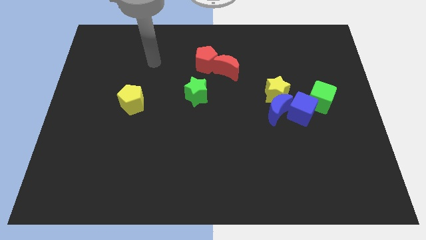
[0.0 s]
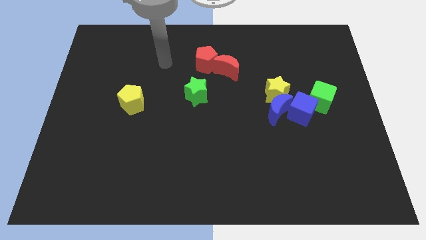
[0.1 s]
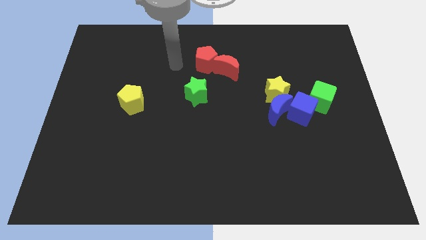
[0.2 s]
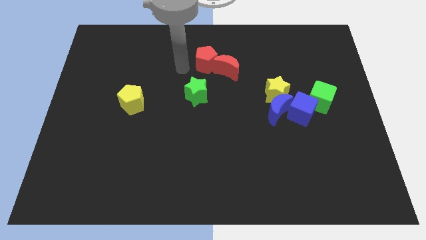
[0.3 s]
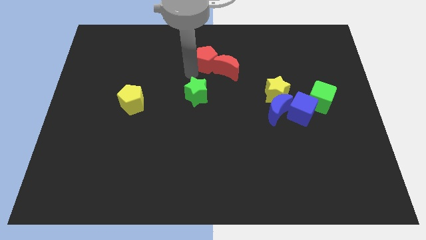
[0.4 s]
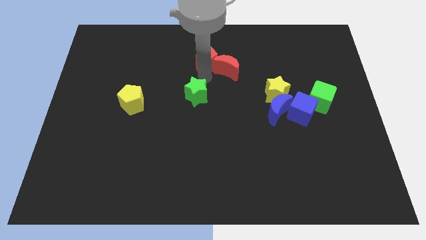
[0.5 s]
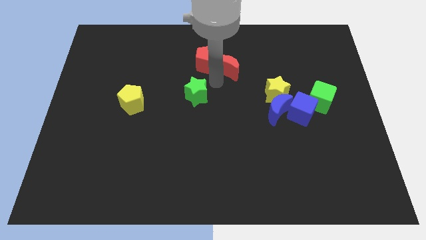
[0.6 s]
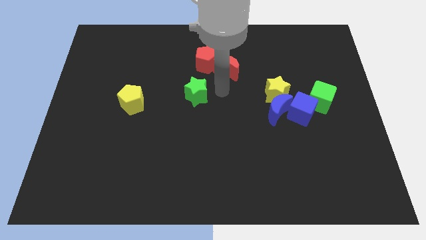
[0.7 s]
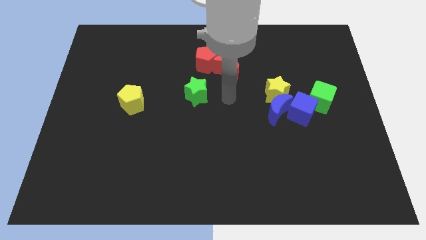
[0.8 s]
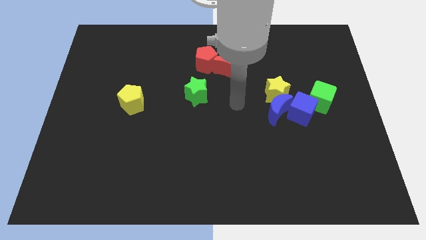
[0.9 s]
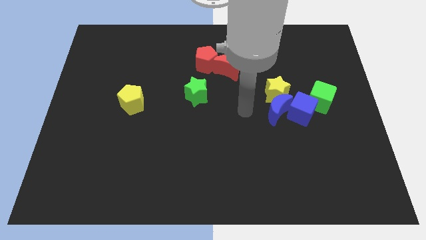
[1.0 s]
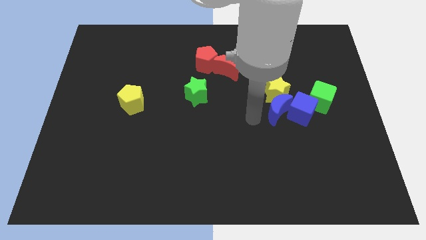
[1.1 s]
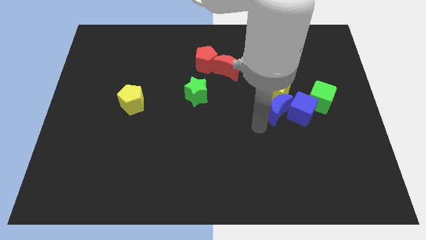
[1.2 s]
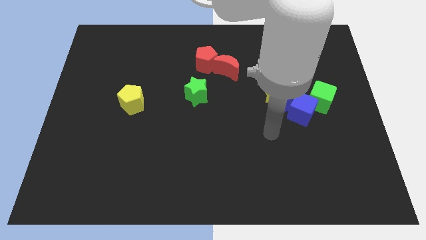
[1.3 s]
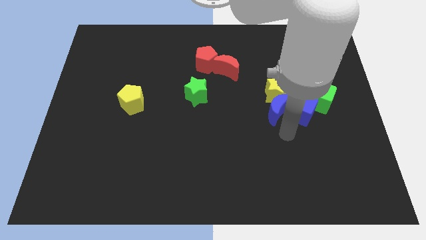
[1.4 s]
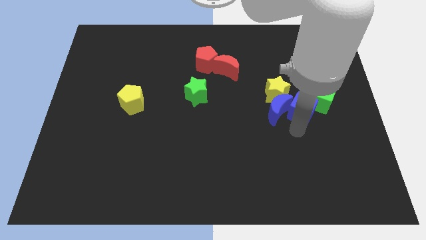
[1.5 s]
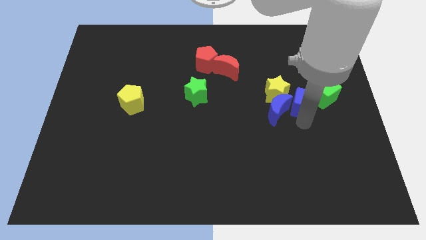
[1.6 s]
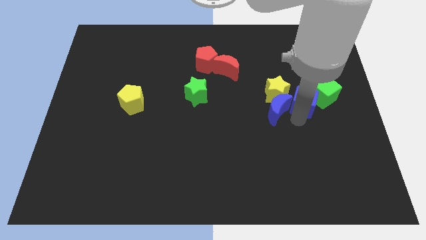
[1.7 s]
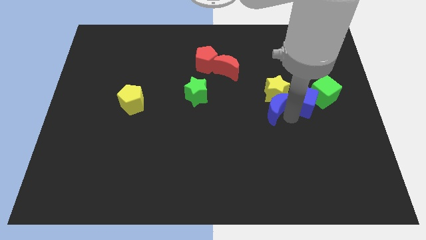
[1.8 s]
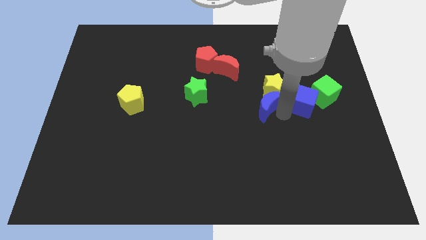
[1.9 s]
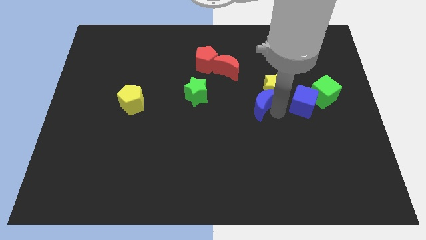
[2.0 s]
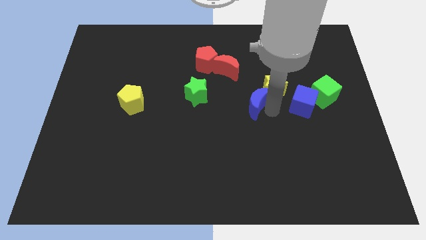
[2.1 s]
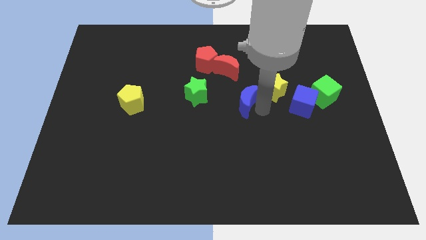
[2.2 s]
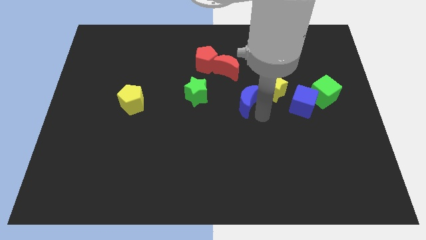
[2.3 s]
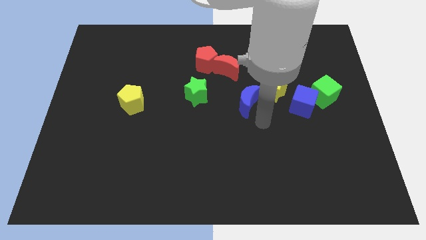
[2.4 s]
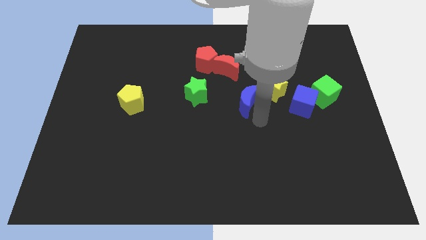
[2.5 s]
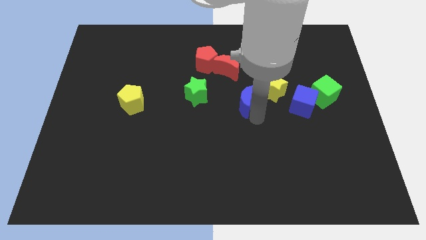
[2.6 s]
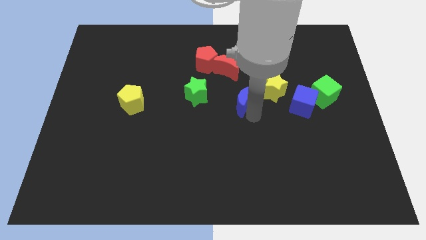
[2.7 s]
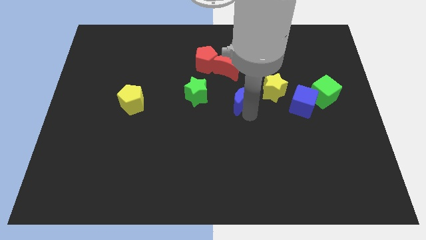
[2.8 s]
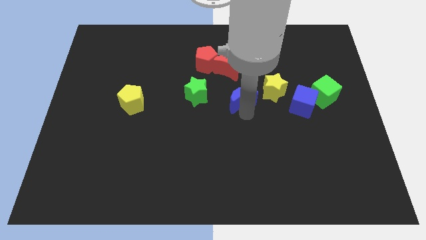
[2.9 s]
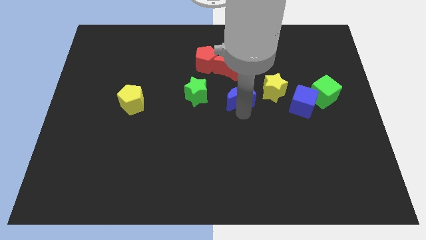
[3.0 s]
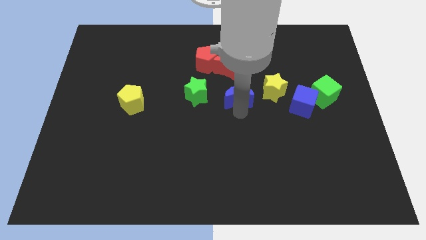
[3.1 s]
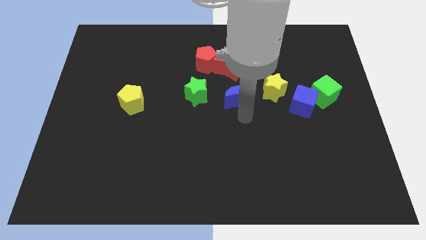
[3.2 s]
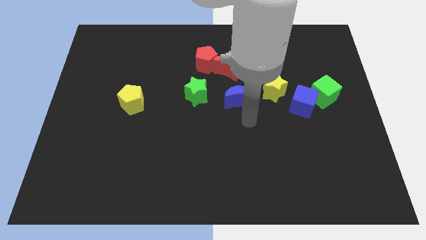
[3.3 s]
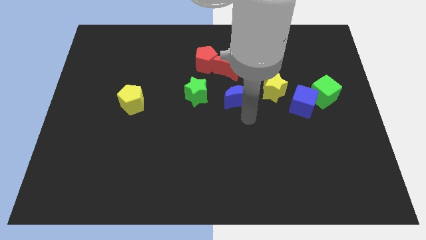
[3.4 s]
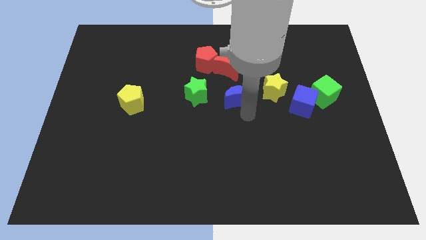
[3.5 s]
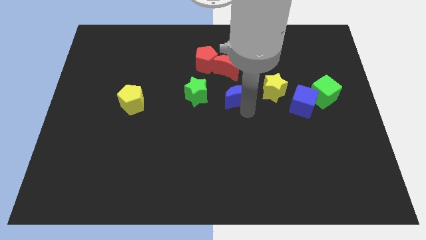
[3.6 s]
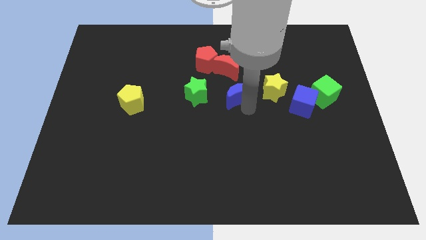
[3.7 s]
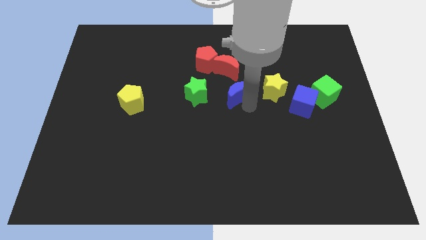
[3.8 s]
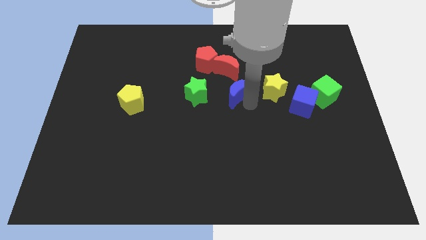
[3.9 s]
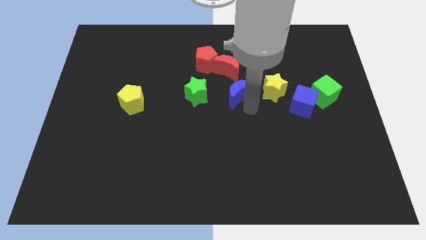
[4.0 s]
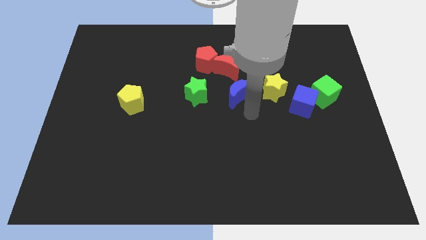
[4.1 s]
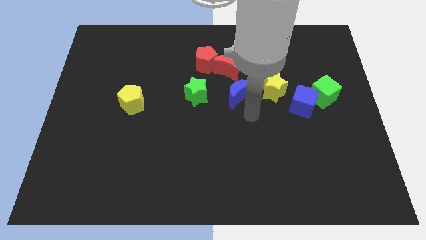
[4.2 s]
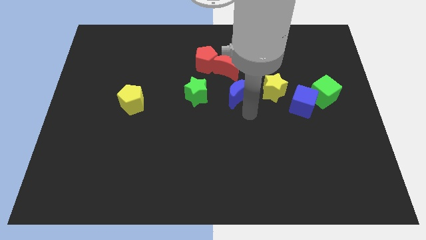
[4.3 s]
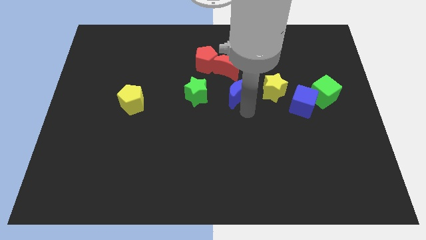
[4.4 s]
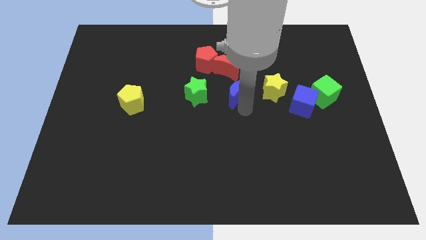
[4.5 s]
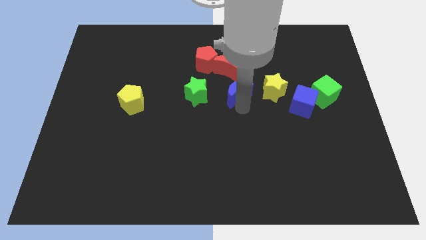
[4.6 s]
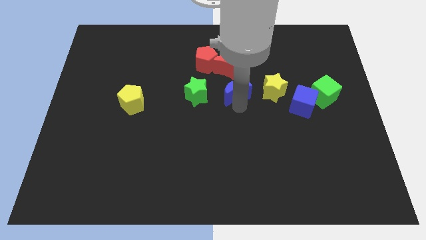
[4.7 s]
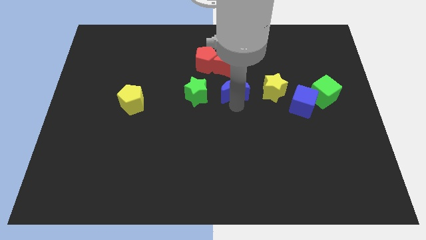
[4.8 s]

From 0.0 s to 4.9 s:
push the blue moon to the bottom right side of the red pentagon

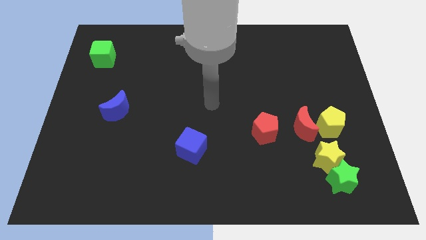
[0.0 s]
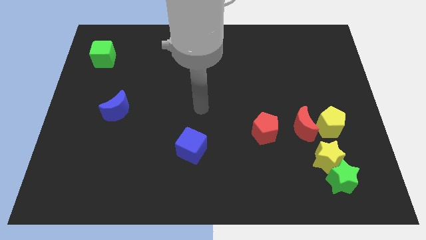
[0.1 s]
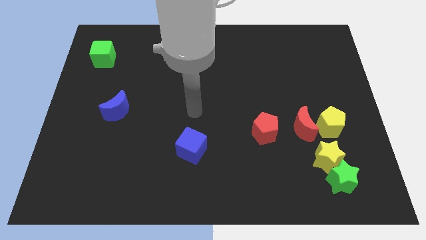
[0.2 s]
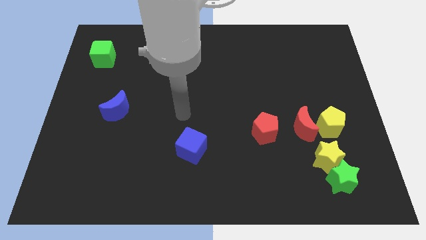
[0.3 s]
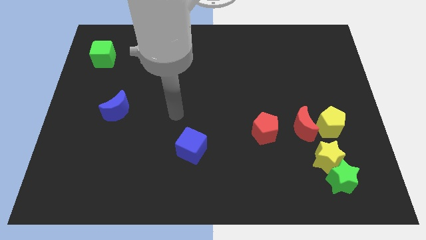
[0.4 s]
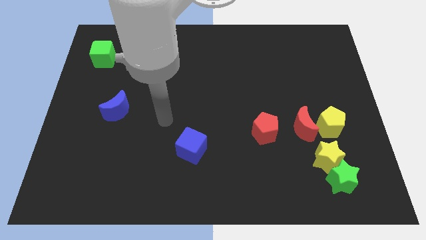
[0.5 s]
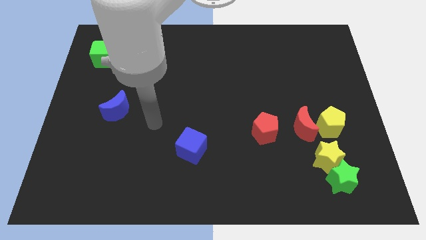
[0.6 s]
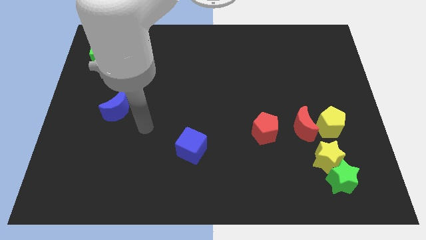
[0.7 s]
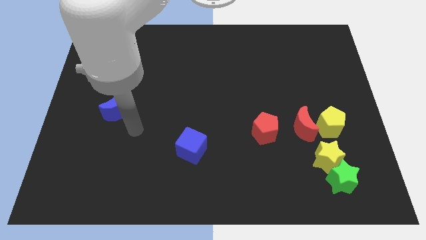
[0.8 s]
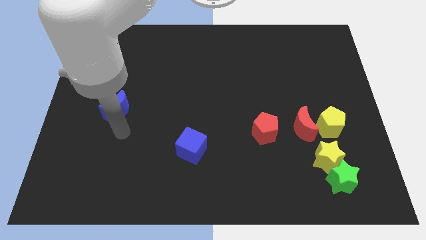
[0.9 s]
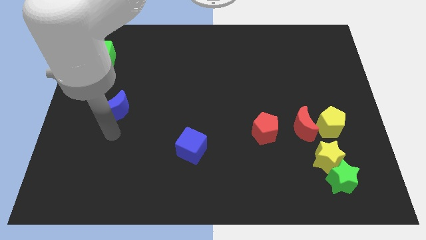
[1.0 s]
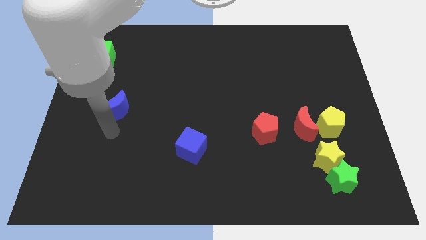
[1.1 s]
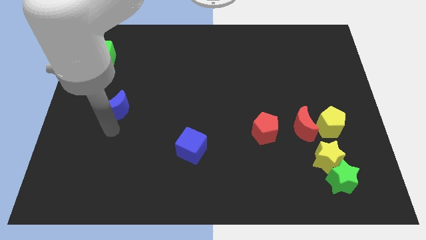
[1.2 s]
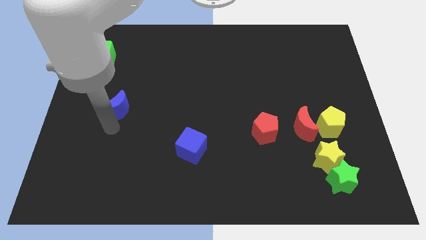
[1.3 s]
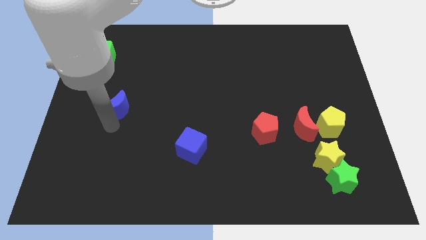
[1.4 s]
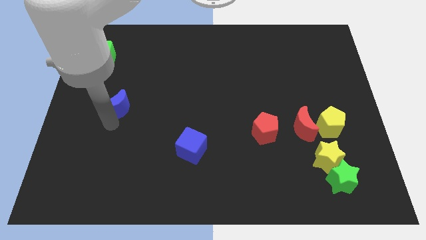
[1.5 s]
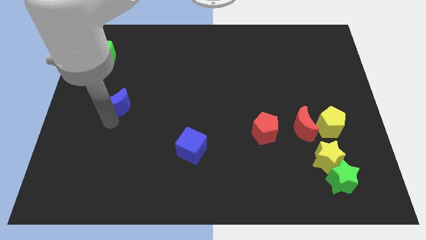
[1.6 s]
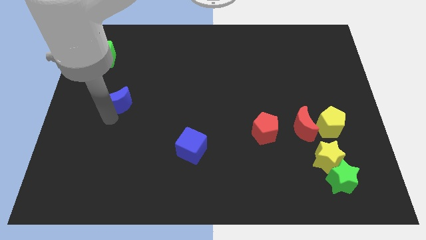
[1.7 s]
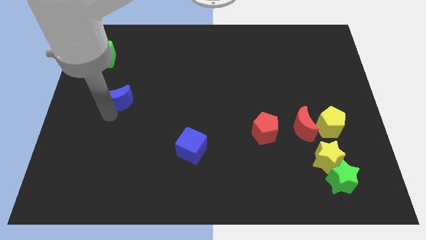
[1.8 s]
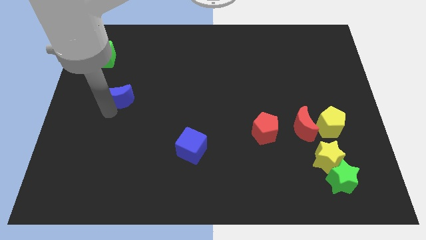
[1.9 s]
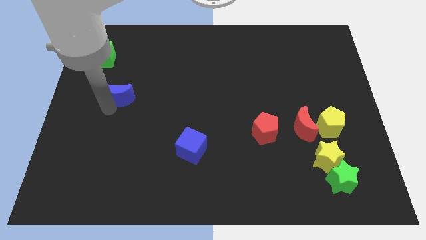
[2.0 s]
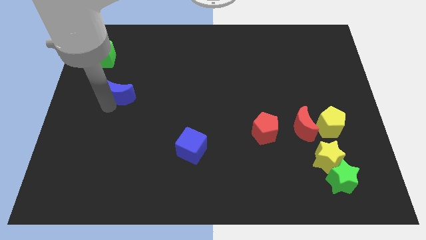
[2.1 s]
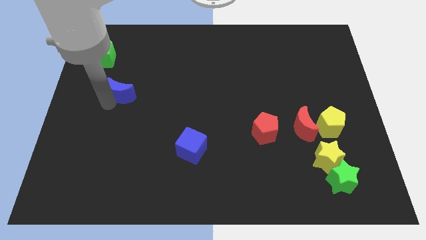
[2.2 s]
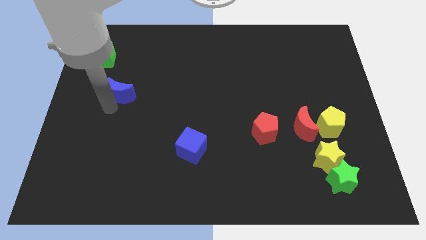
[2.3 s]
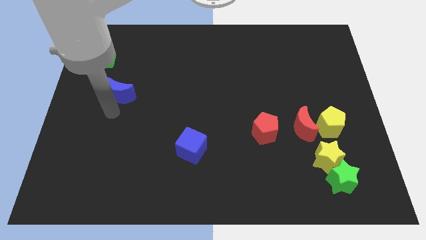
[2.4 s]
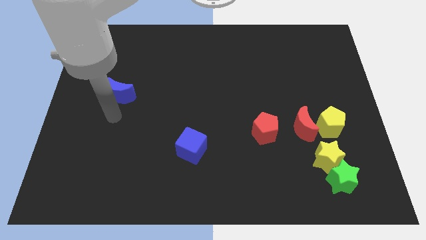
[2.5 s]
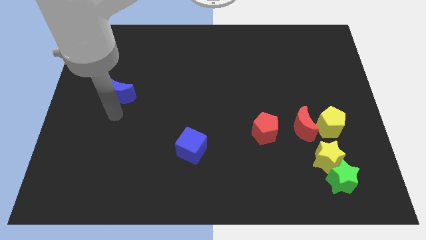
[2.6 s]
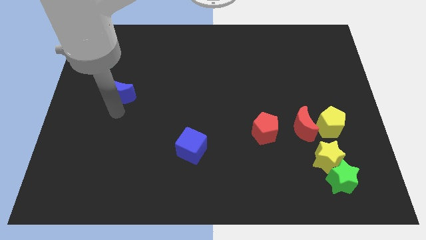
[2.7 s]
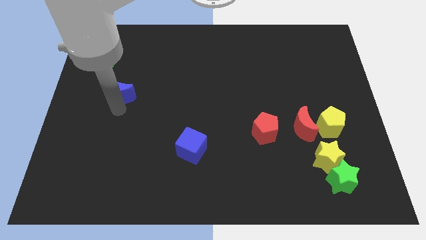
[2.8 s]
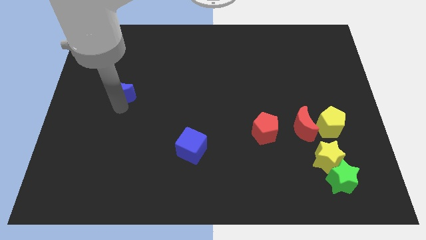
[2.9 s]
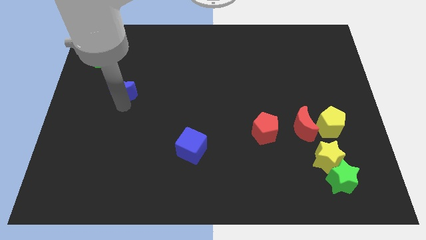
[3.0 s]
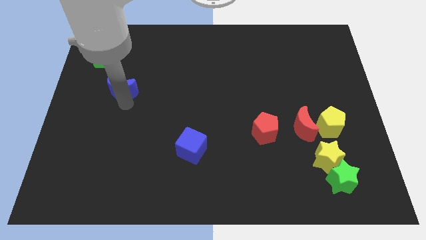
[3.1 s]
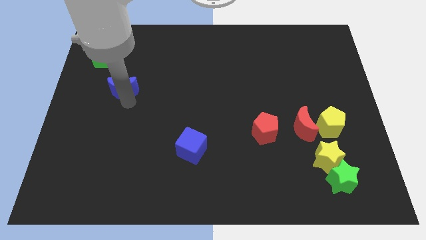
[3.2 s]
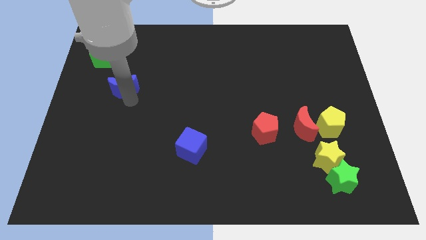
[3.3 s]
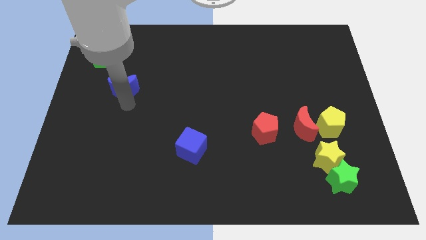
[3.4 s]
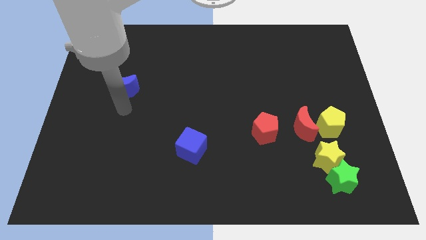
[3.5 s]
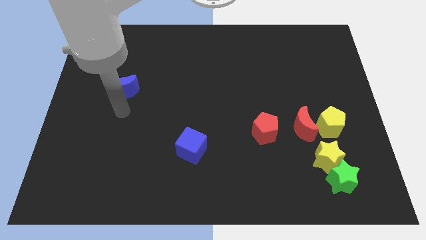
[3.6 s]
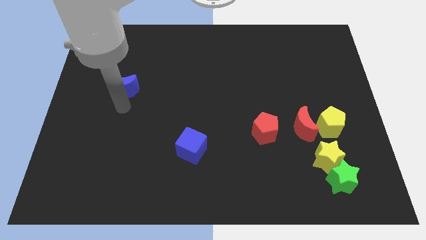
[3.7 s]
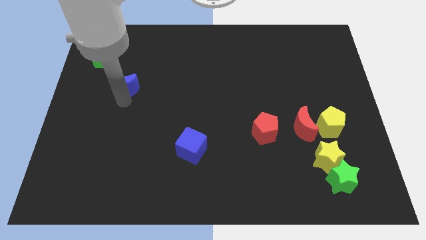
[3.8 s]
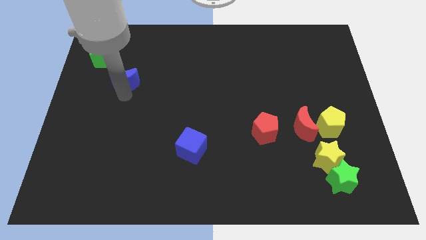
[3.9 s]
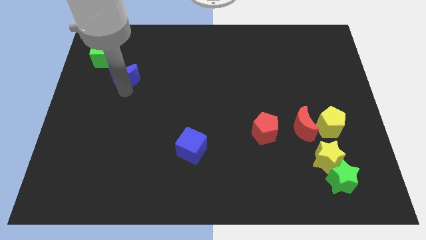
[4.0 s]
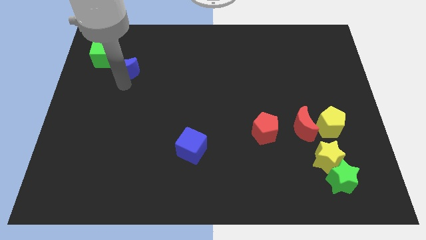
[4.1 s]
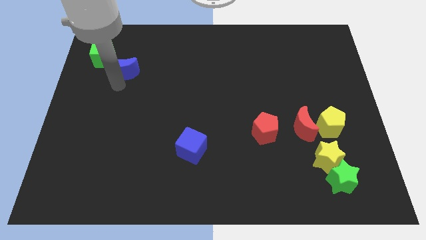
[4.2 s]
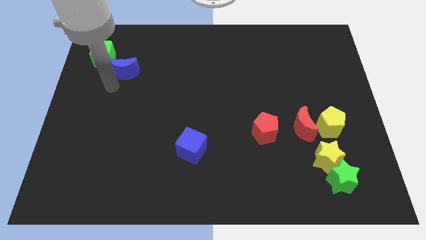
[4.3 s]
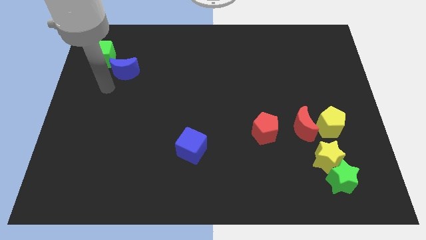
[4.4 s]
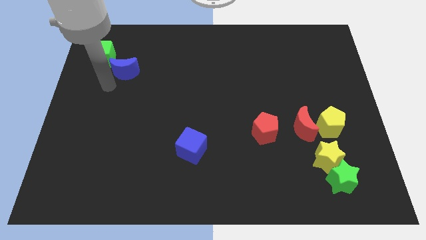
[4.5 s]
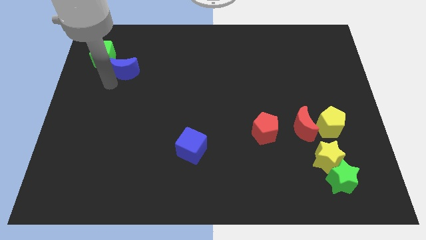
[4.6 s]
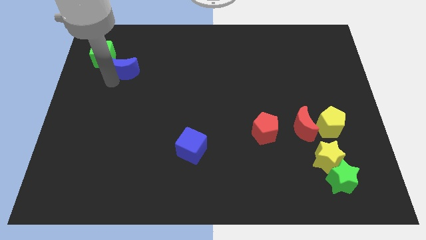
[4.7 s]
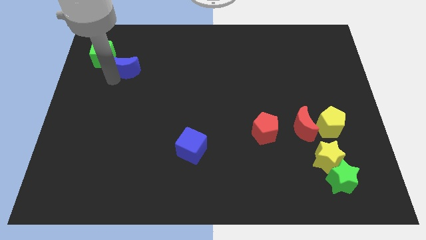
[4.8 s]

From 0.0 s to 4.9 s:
put the blue moon just right of the green cube
